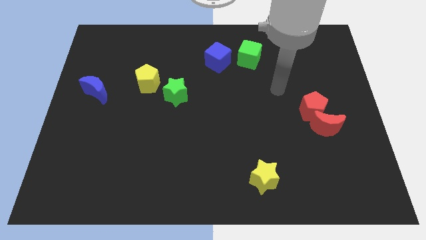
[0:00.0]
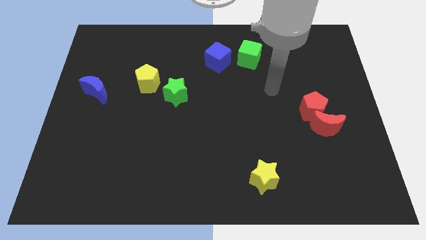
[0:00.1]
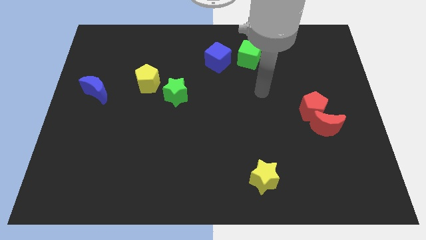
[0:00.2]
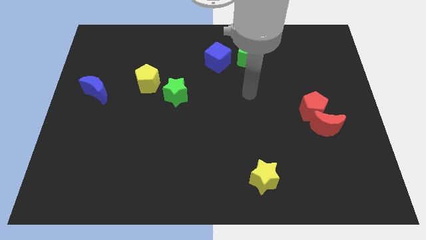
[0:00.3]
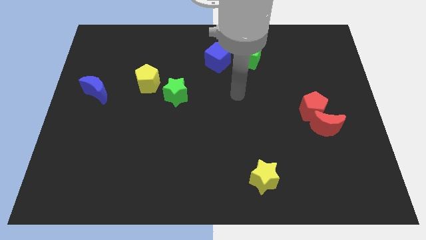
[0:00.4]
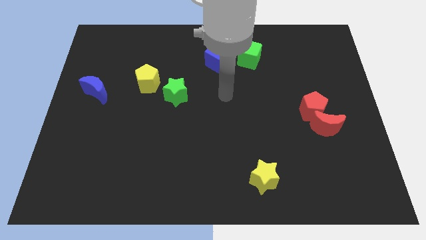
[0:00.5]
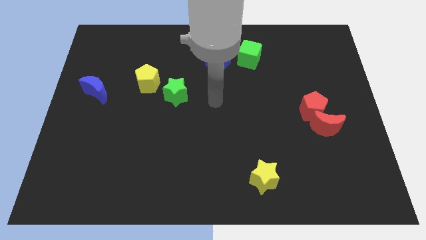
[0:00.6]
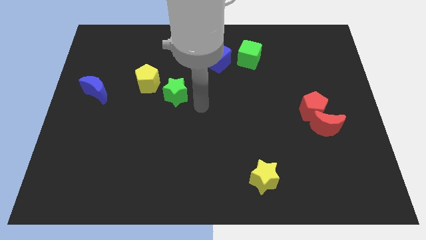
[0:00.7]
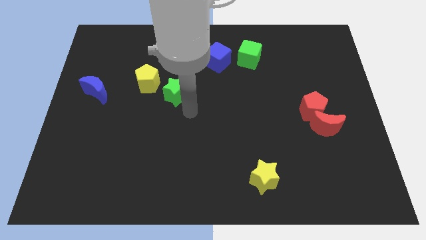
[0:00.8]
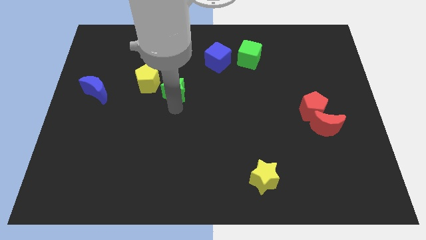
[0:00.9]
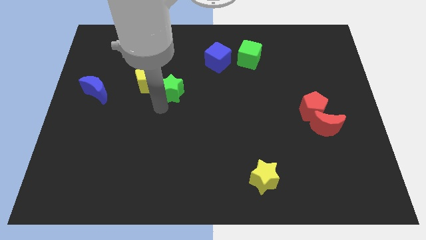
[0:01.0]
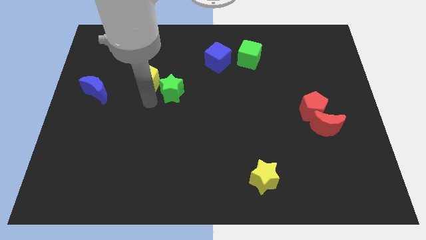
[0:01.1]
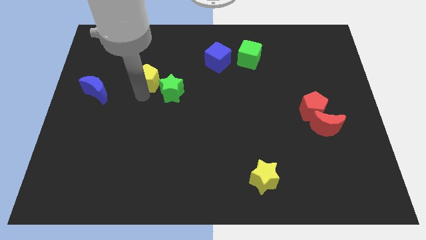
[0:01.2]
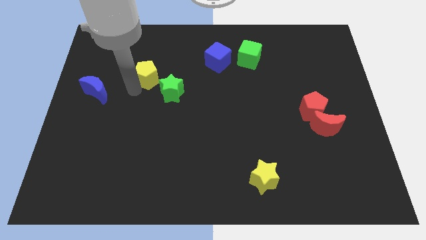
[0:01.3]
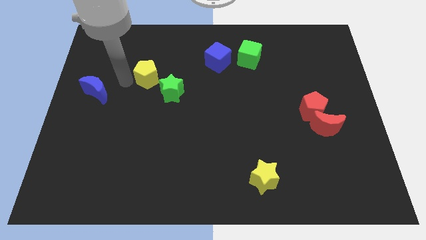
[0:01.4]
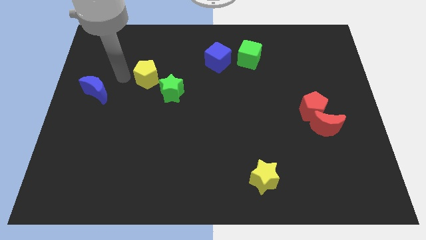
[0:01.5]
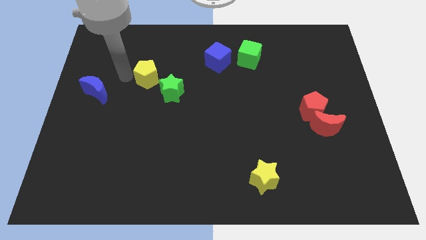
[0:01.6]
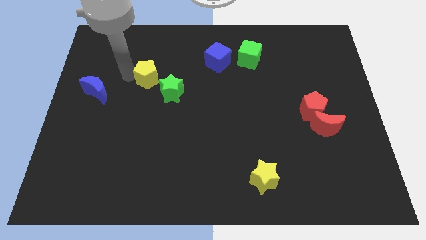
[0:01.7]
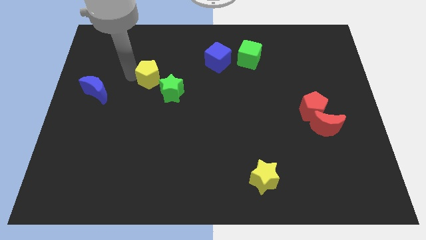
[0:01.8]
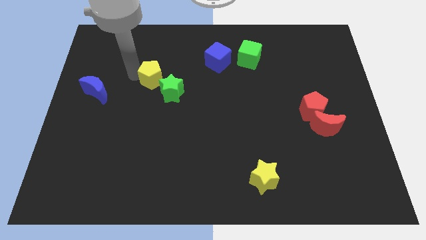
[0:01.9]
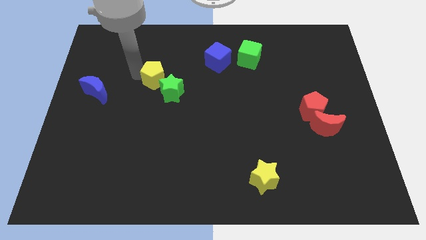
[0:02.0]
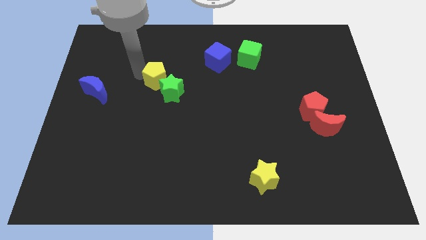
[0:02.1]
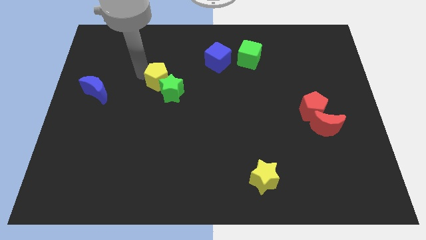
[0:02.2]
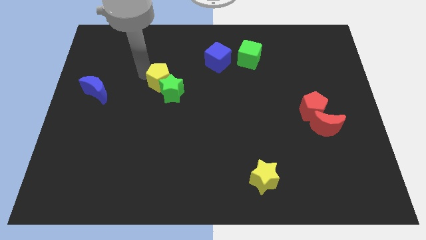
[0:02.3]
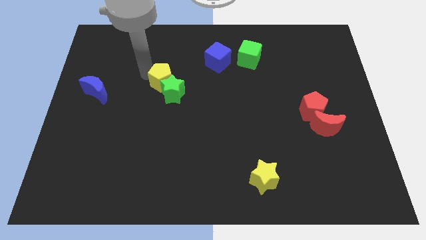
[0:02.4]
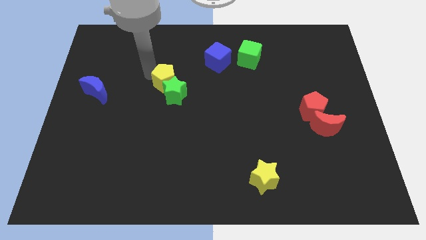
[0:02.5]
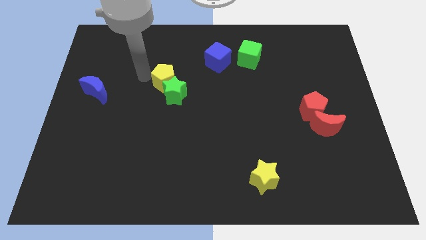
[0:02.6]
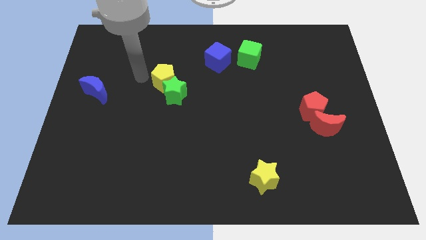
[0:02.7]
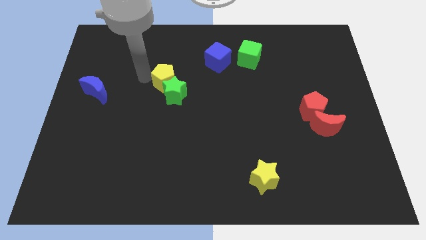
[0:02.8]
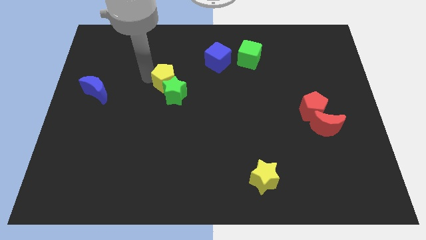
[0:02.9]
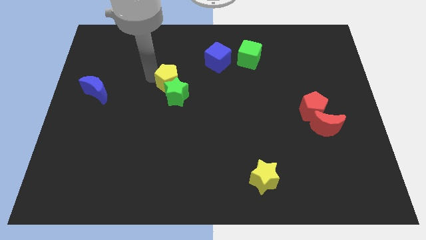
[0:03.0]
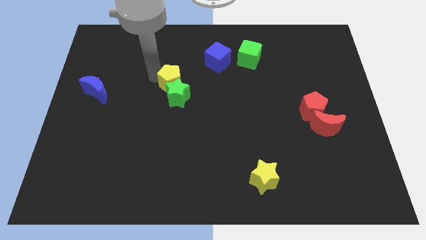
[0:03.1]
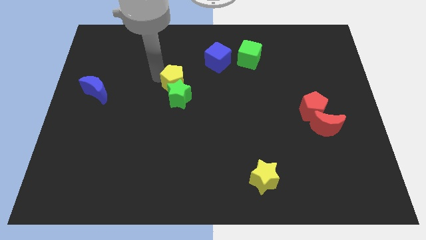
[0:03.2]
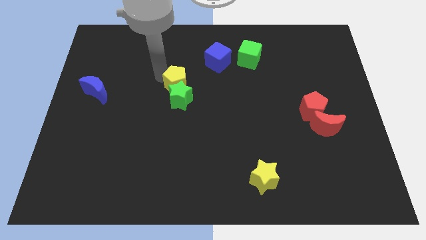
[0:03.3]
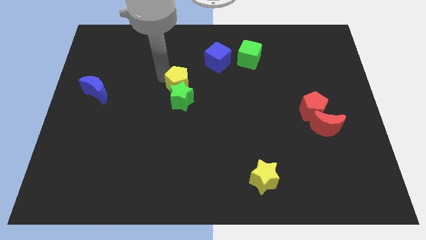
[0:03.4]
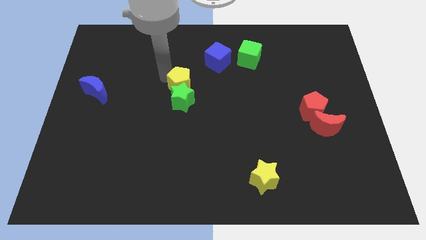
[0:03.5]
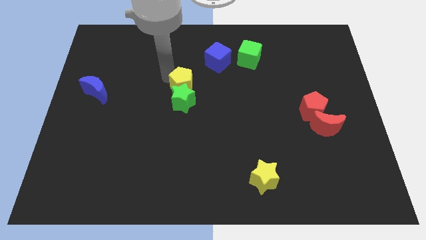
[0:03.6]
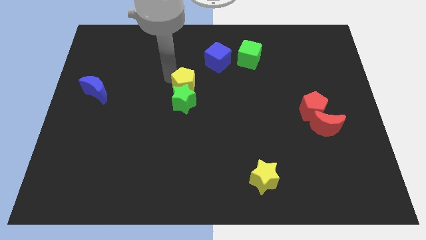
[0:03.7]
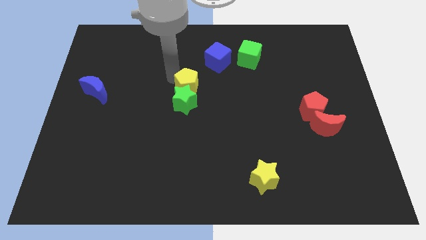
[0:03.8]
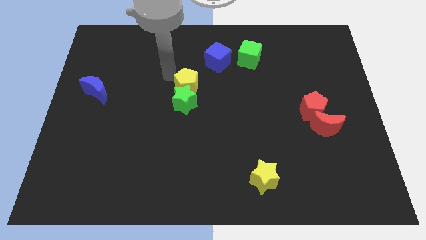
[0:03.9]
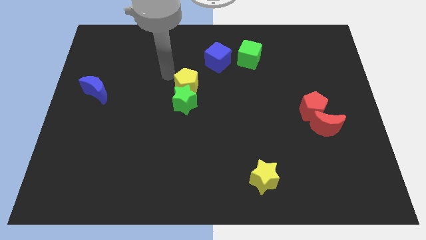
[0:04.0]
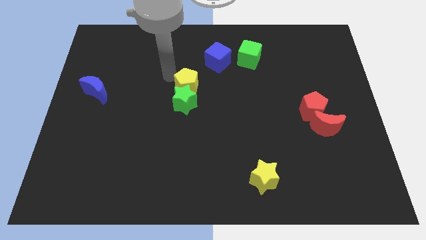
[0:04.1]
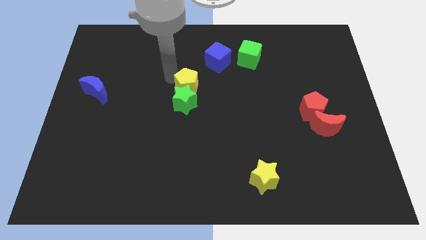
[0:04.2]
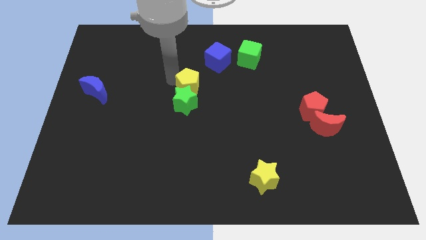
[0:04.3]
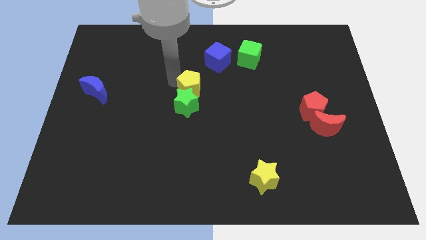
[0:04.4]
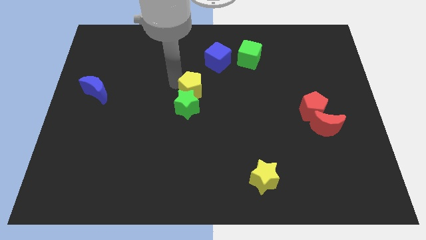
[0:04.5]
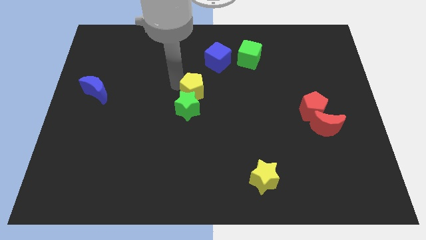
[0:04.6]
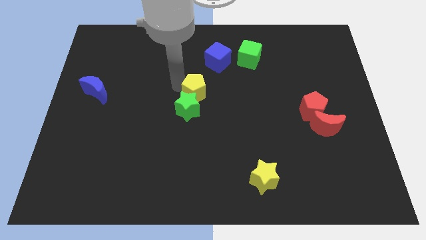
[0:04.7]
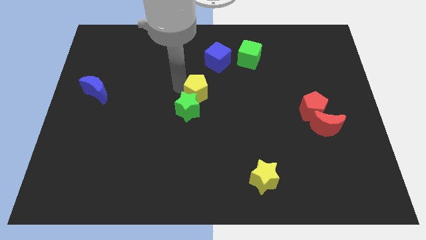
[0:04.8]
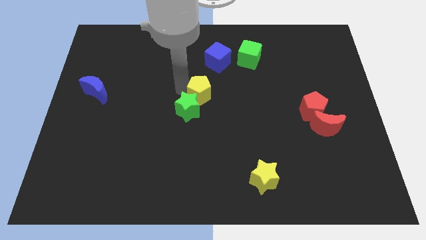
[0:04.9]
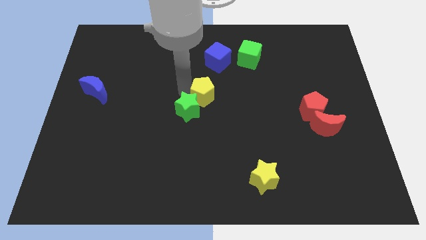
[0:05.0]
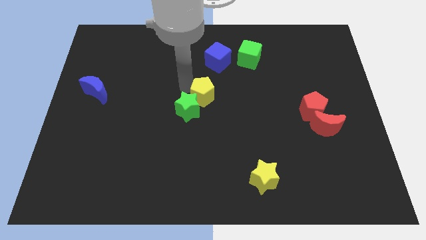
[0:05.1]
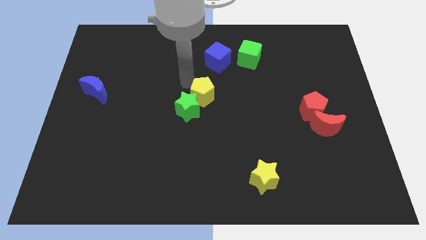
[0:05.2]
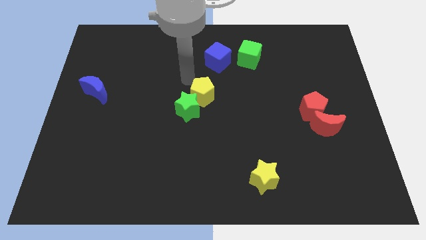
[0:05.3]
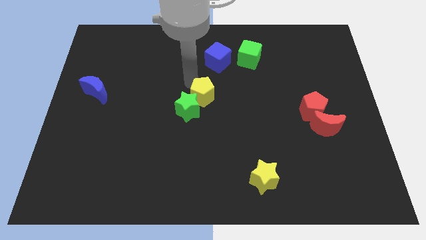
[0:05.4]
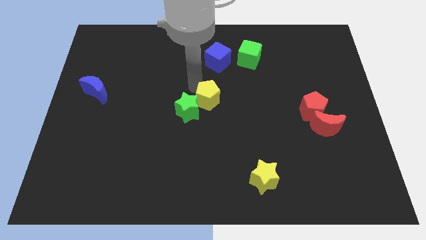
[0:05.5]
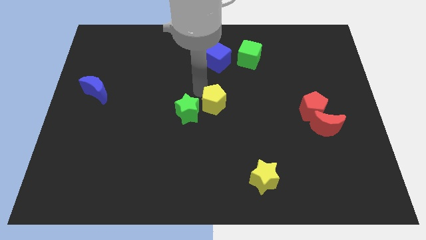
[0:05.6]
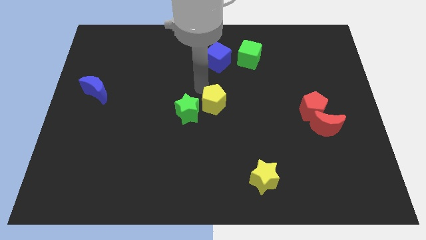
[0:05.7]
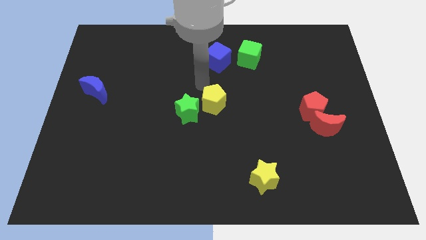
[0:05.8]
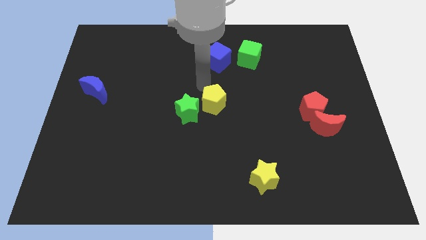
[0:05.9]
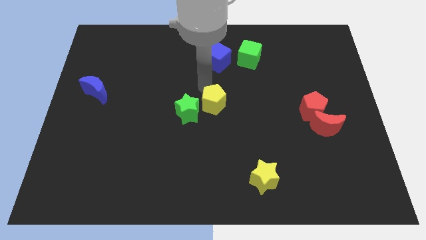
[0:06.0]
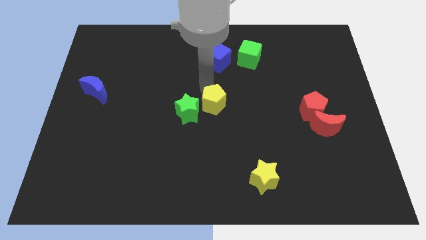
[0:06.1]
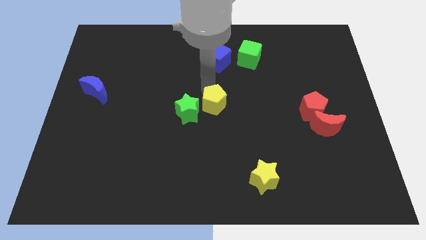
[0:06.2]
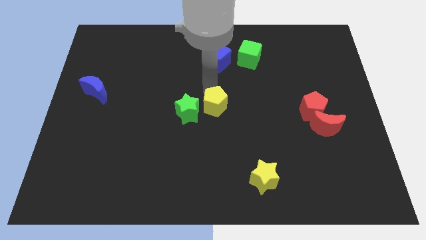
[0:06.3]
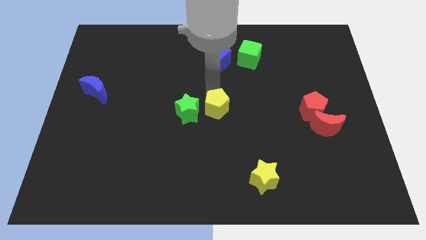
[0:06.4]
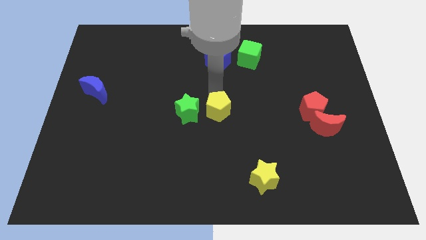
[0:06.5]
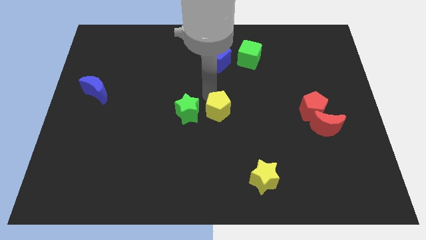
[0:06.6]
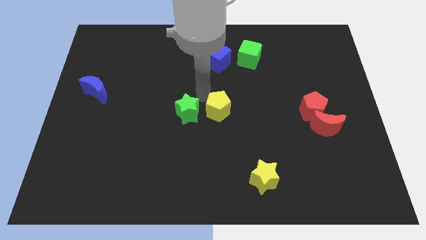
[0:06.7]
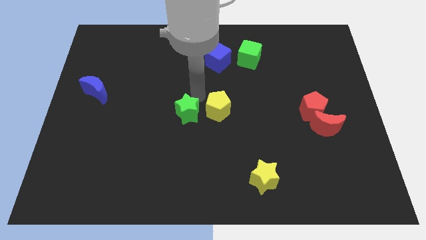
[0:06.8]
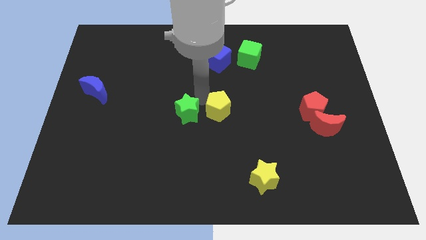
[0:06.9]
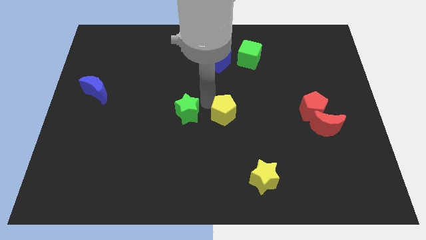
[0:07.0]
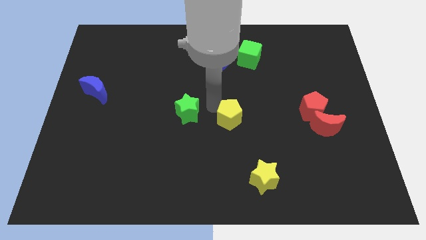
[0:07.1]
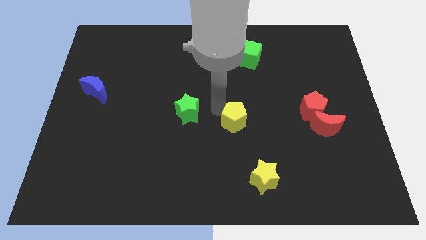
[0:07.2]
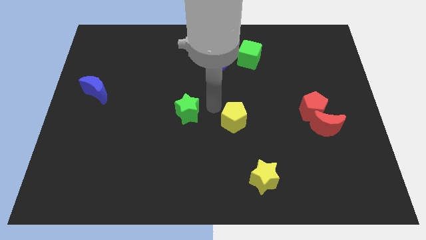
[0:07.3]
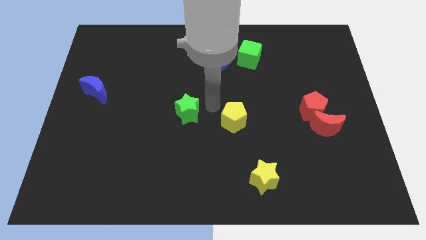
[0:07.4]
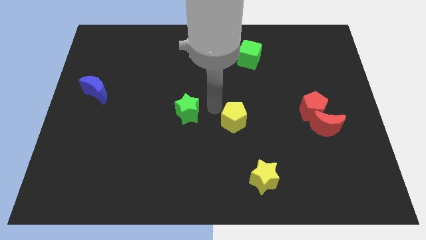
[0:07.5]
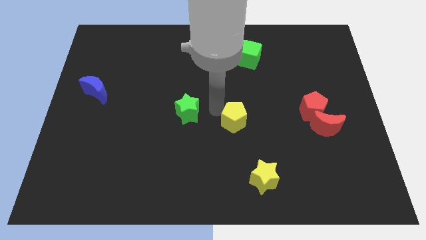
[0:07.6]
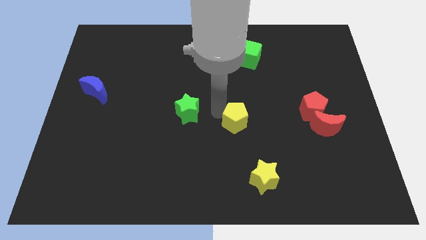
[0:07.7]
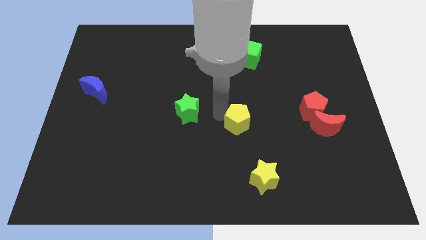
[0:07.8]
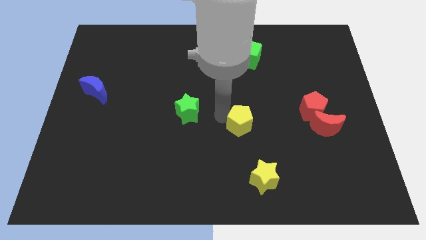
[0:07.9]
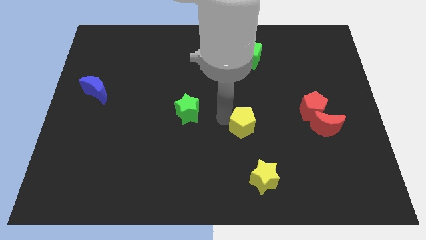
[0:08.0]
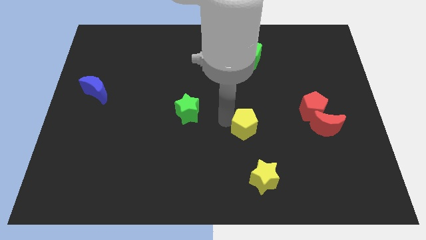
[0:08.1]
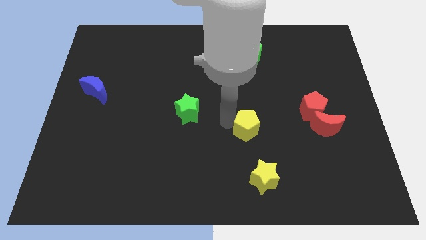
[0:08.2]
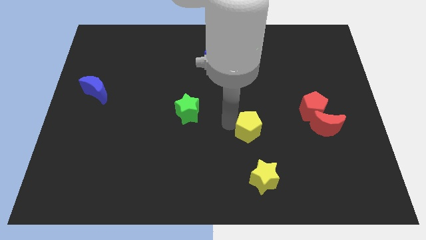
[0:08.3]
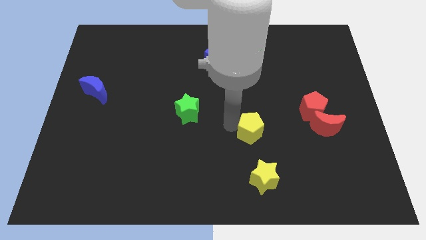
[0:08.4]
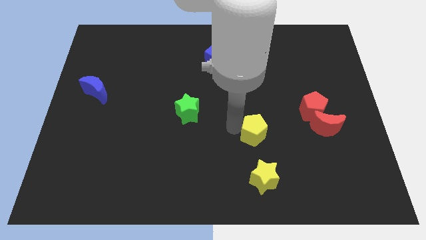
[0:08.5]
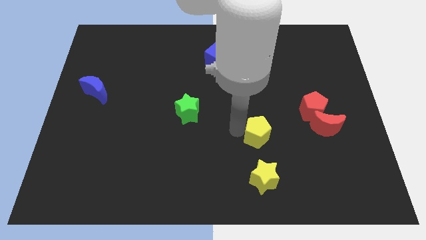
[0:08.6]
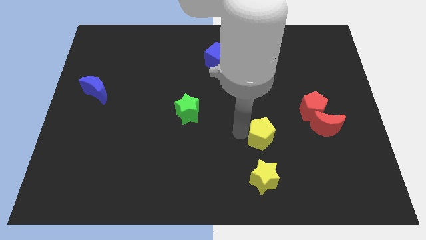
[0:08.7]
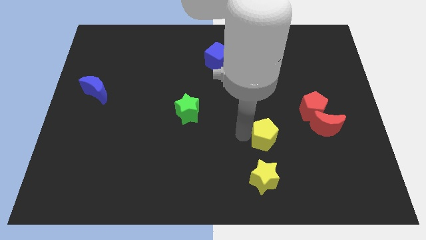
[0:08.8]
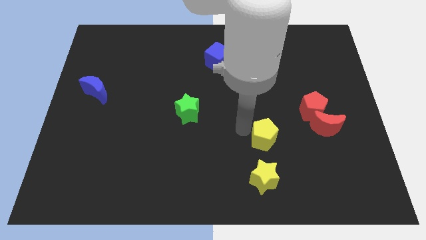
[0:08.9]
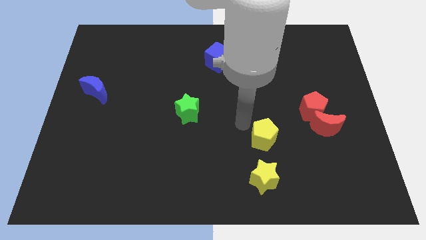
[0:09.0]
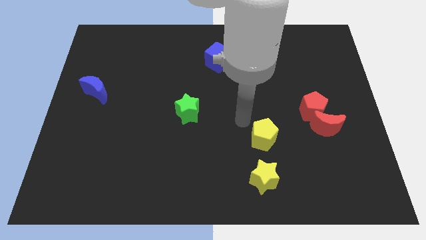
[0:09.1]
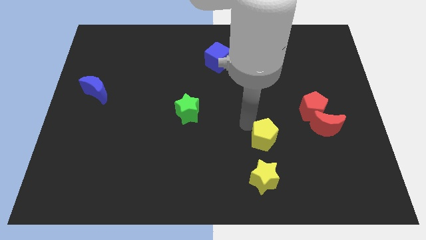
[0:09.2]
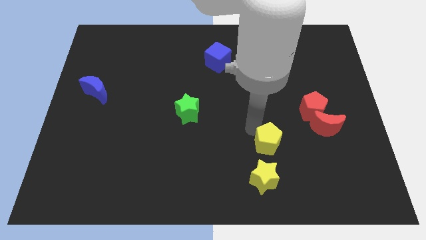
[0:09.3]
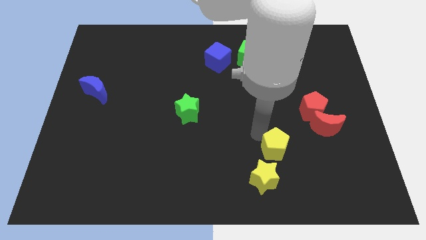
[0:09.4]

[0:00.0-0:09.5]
push the yellow pentagon diagonally up and to the right of the yellow star
